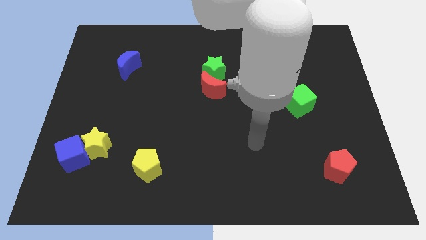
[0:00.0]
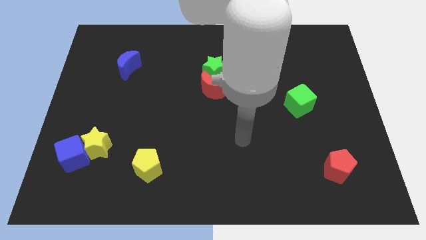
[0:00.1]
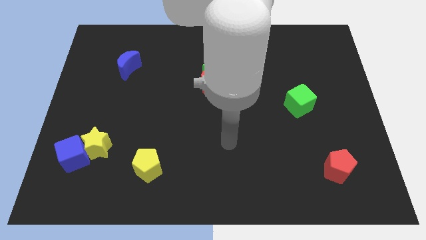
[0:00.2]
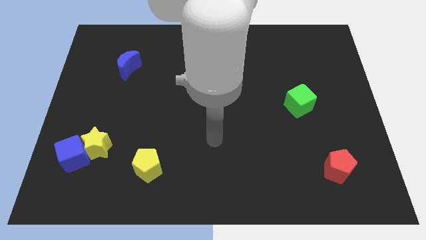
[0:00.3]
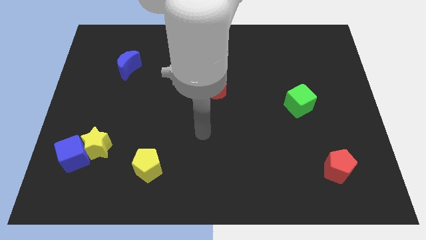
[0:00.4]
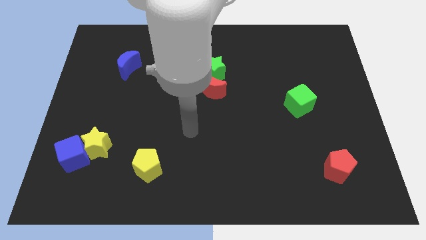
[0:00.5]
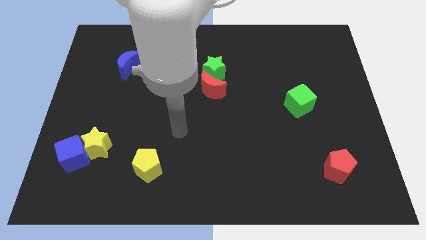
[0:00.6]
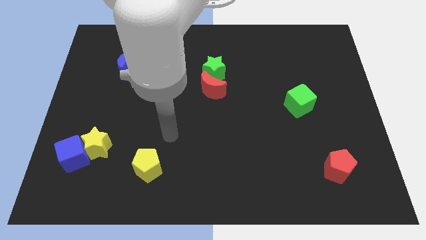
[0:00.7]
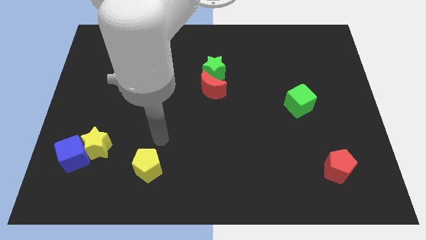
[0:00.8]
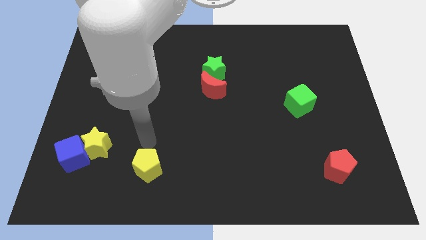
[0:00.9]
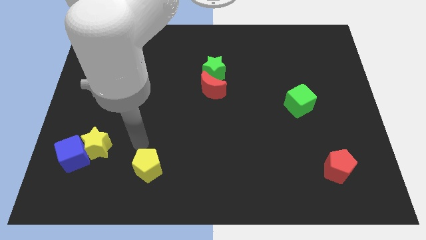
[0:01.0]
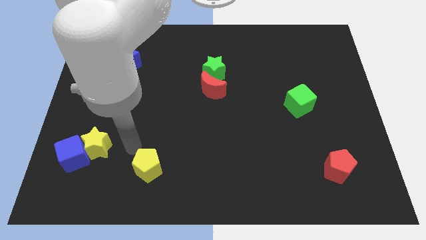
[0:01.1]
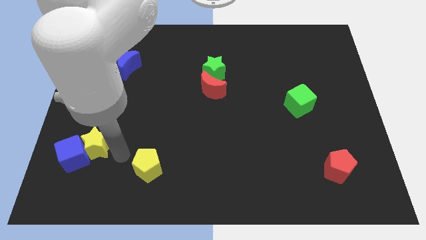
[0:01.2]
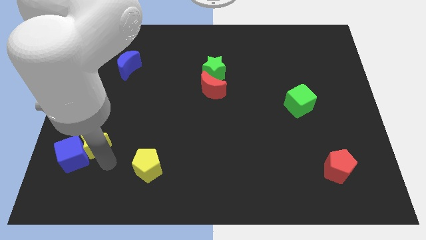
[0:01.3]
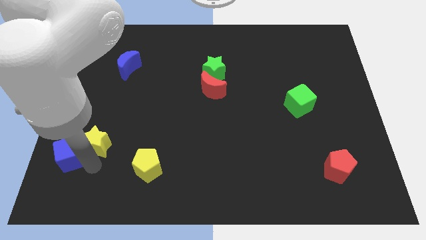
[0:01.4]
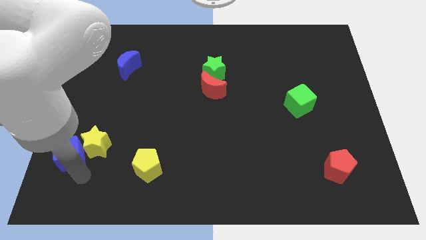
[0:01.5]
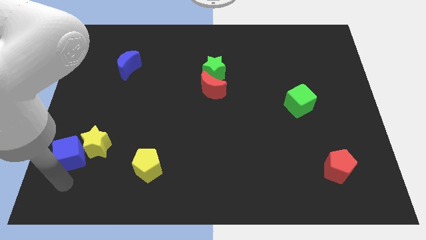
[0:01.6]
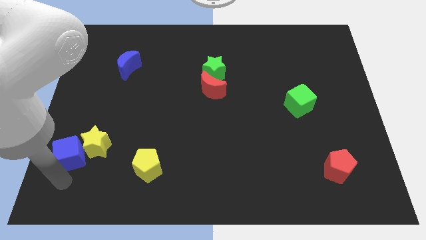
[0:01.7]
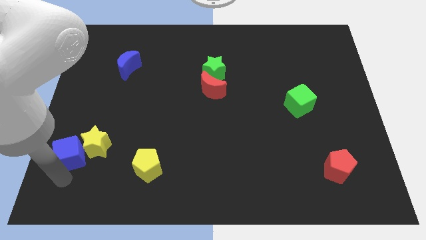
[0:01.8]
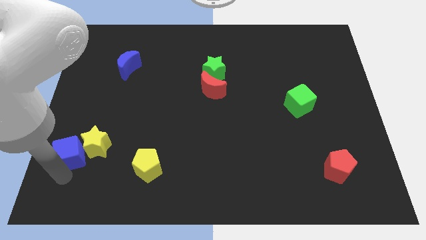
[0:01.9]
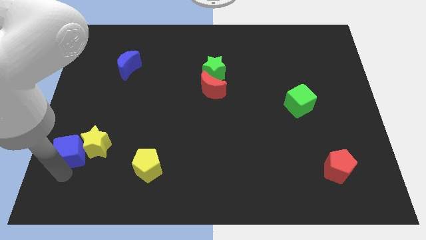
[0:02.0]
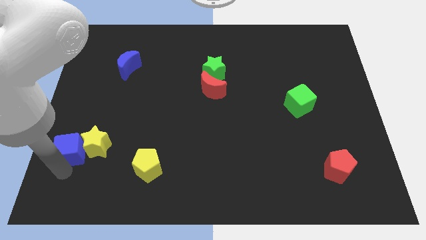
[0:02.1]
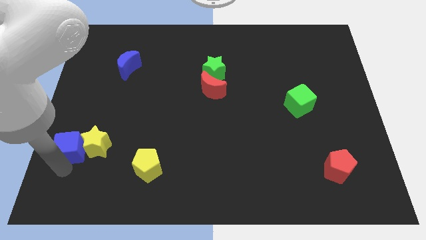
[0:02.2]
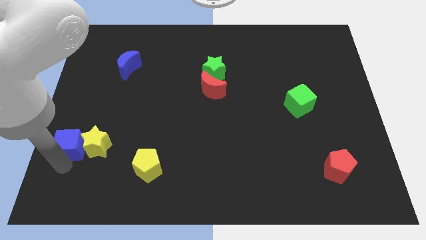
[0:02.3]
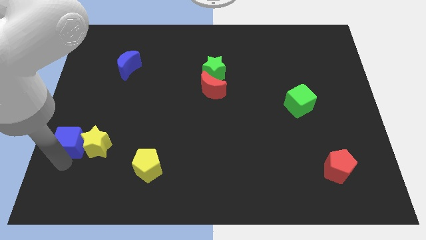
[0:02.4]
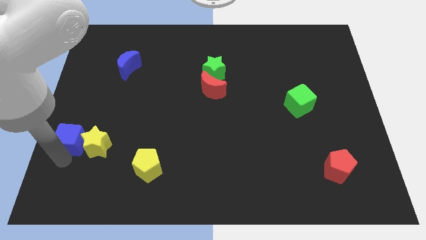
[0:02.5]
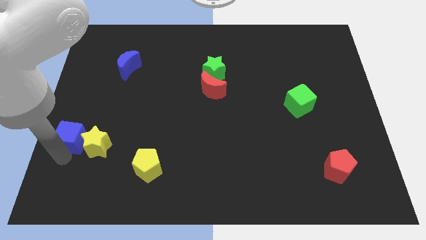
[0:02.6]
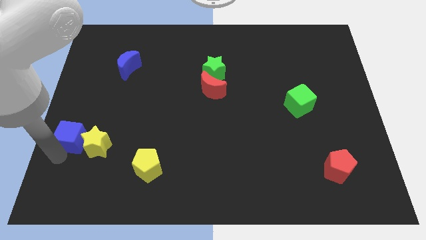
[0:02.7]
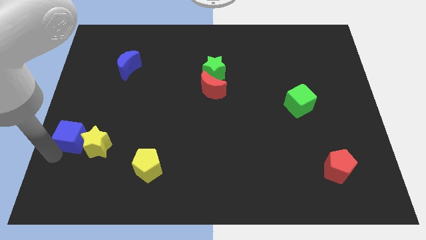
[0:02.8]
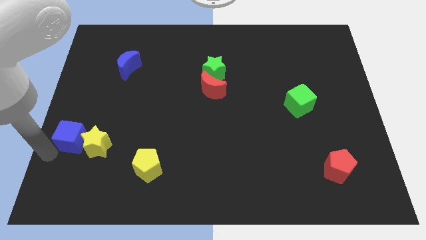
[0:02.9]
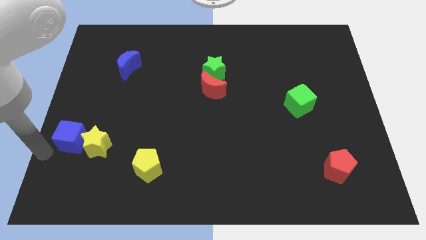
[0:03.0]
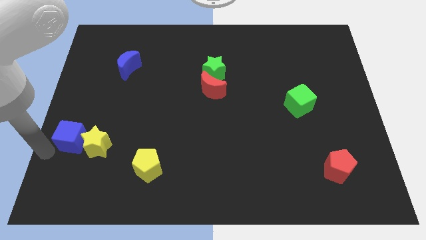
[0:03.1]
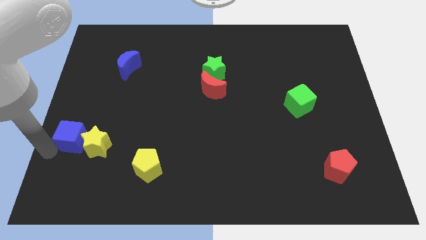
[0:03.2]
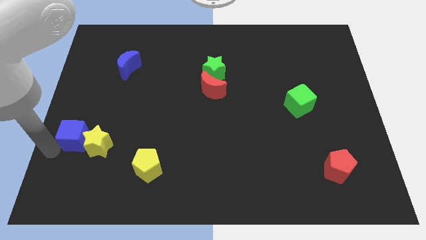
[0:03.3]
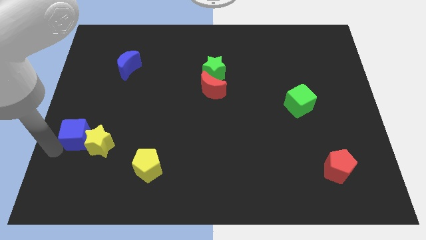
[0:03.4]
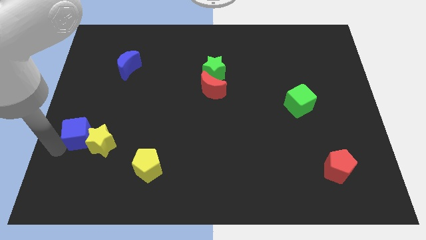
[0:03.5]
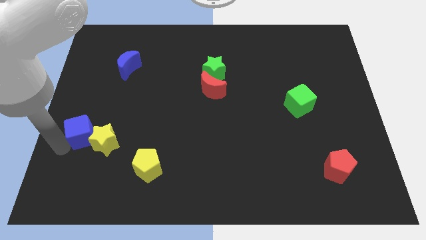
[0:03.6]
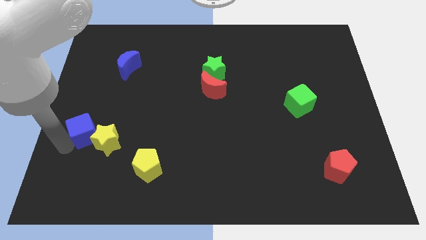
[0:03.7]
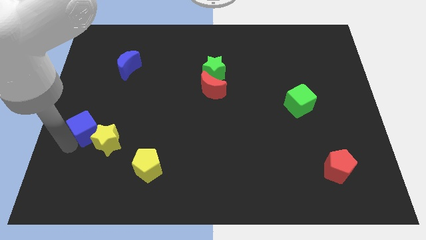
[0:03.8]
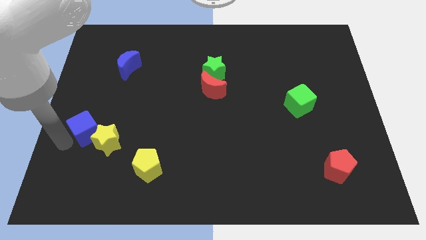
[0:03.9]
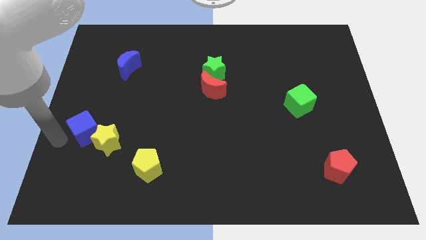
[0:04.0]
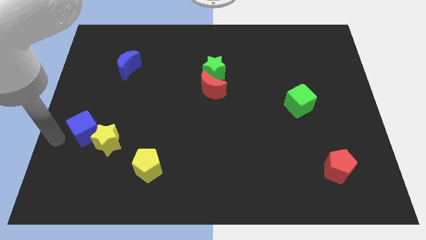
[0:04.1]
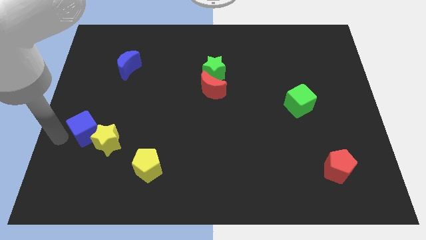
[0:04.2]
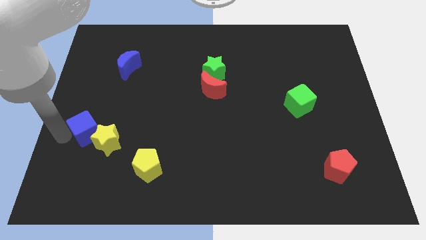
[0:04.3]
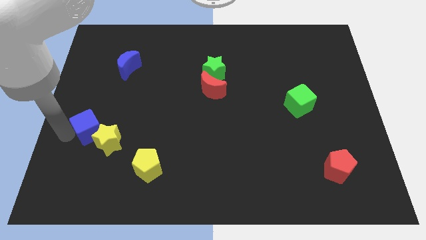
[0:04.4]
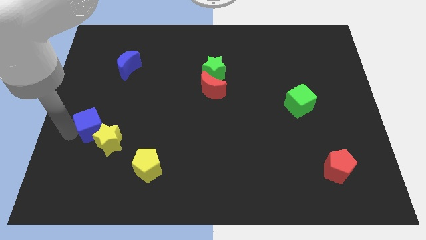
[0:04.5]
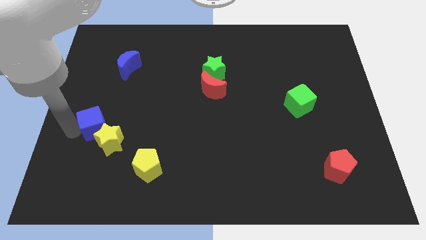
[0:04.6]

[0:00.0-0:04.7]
push the blue cube up and then right a little bit

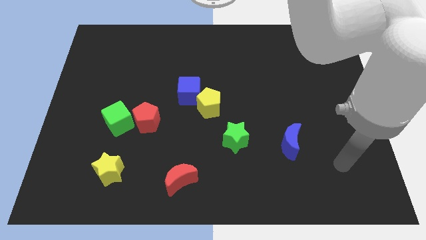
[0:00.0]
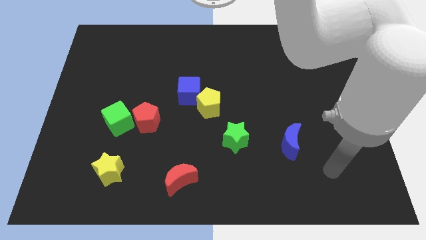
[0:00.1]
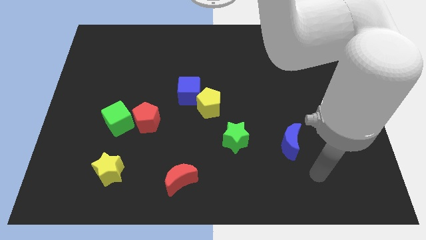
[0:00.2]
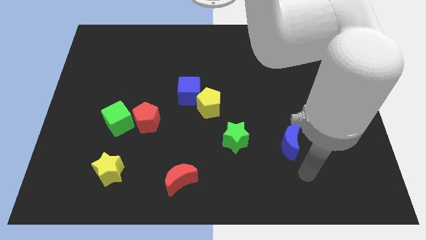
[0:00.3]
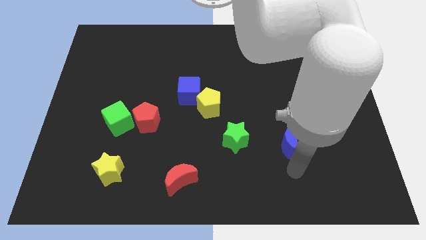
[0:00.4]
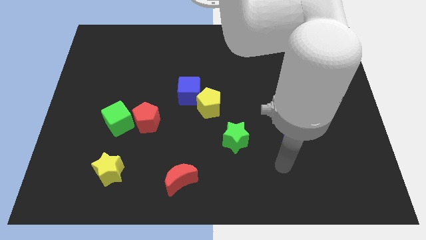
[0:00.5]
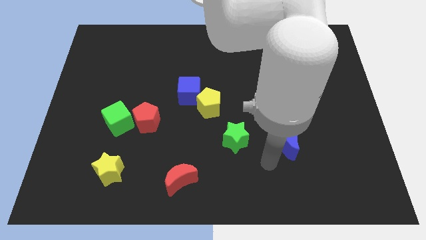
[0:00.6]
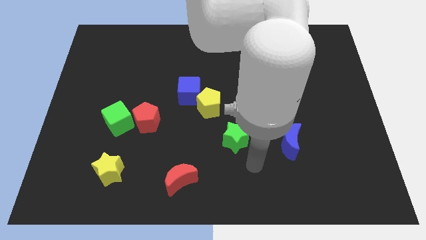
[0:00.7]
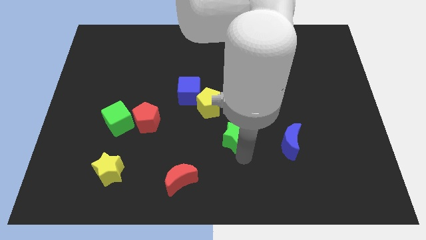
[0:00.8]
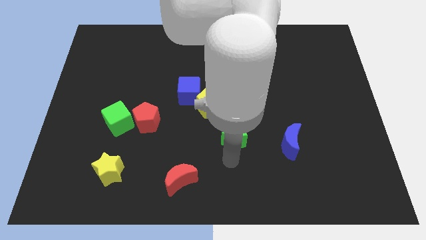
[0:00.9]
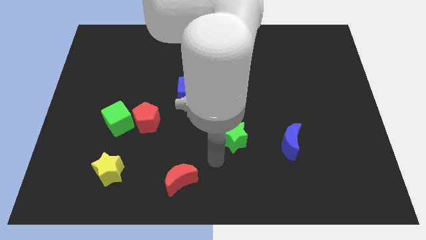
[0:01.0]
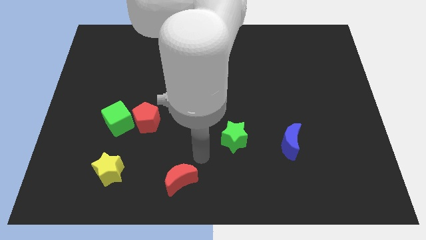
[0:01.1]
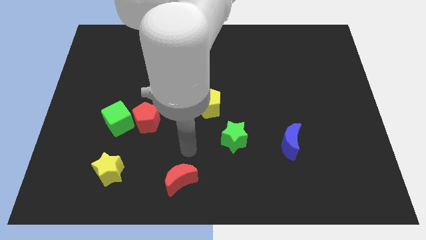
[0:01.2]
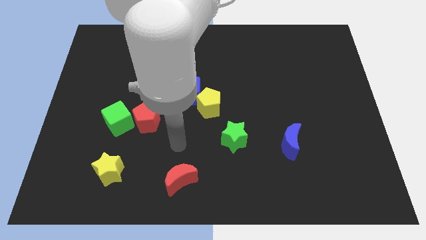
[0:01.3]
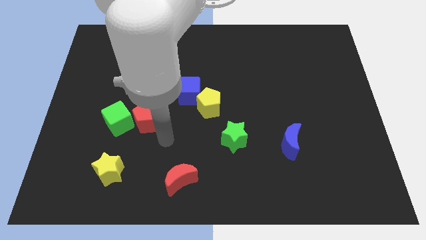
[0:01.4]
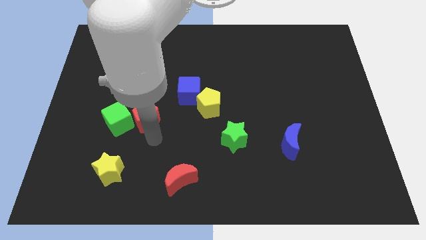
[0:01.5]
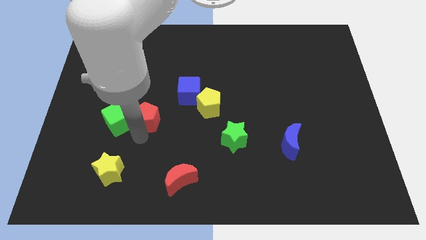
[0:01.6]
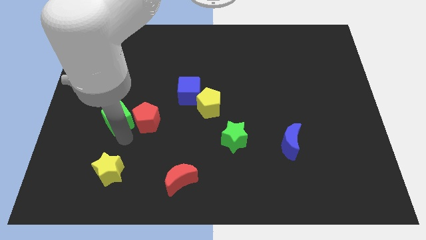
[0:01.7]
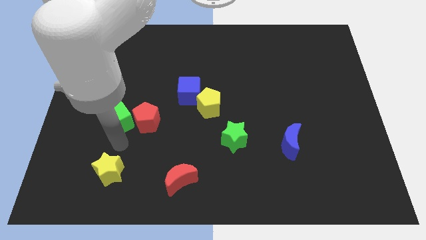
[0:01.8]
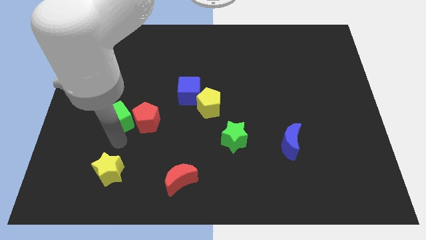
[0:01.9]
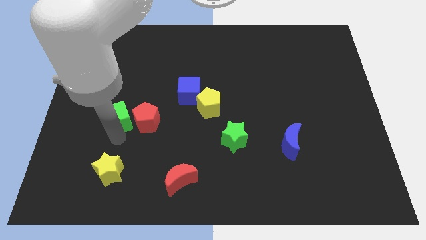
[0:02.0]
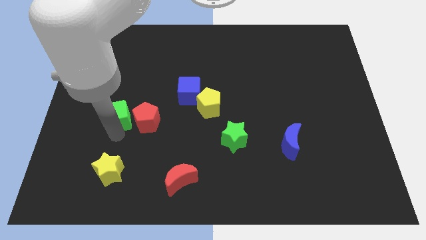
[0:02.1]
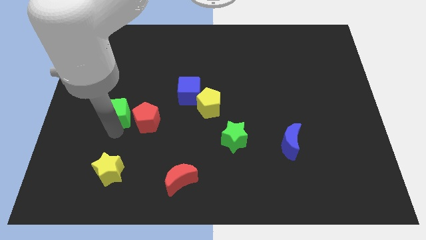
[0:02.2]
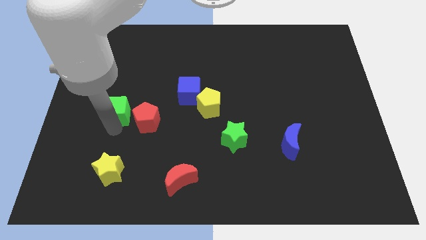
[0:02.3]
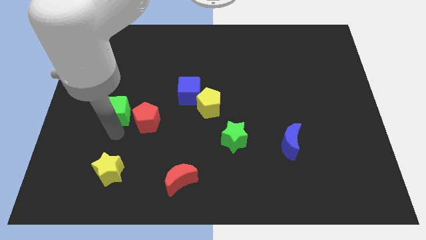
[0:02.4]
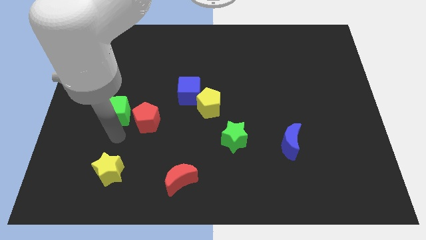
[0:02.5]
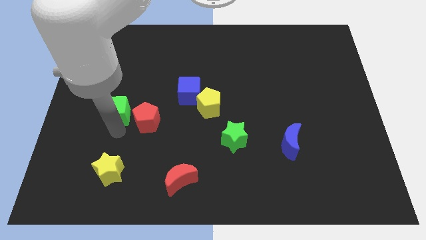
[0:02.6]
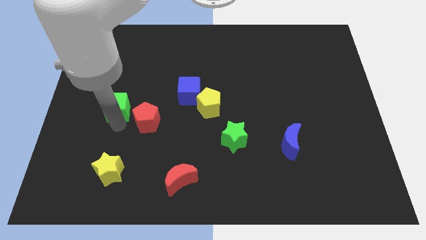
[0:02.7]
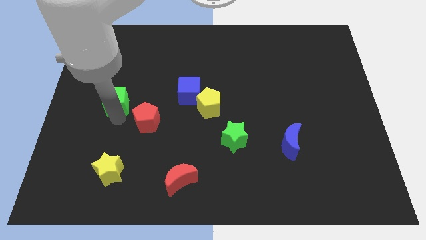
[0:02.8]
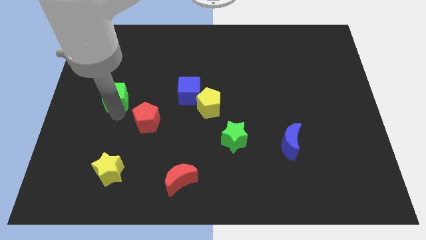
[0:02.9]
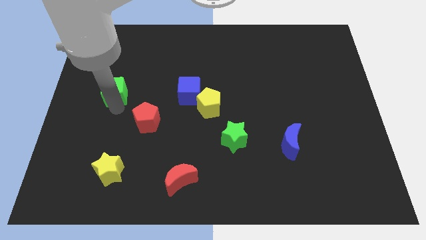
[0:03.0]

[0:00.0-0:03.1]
slightly push the green cube up
